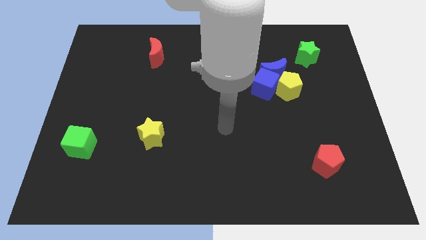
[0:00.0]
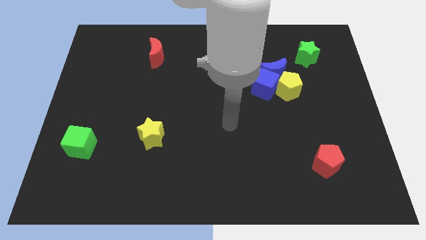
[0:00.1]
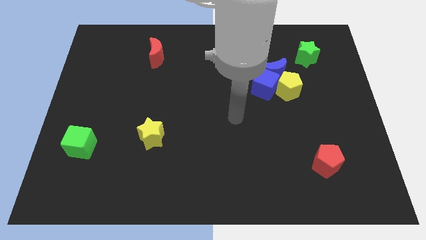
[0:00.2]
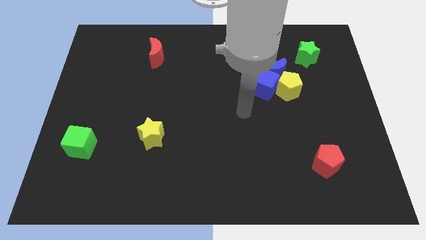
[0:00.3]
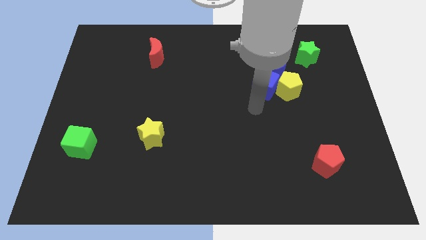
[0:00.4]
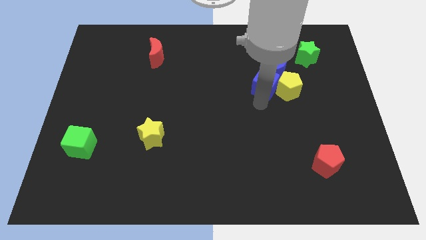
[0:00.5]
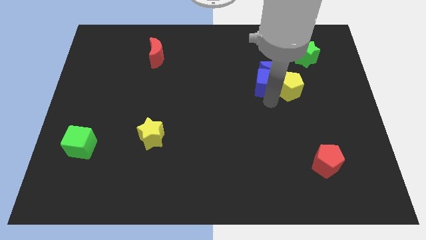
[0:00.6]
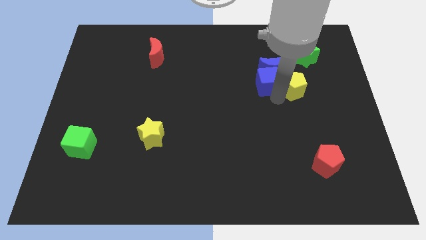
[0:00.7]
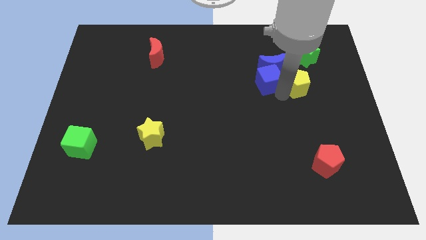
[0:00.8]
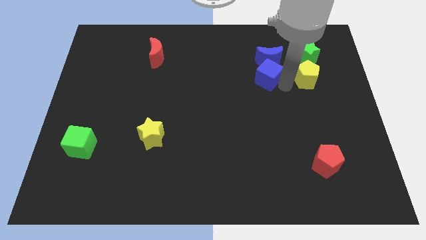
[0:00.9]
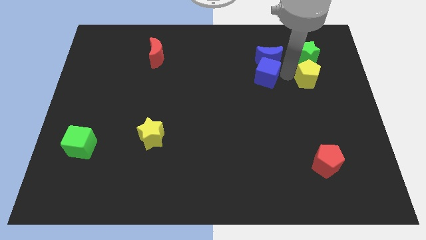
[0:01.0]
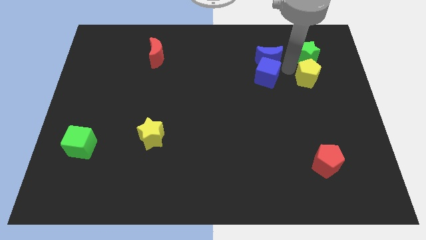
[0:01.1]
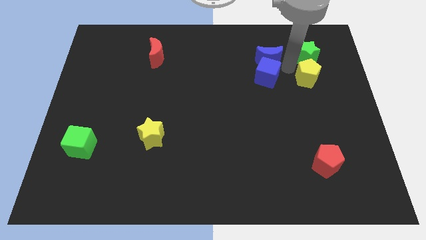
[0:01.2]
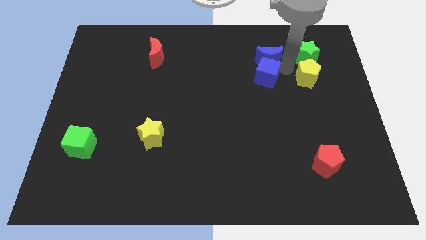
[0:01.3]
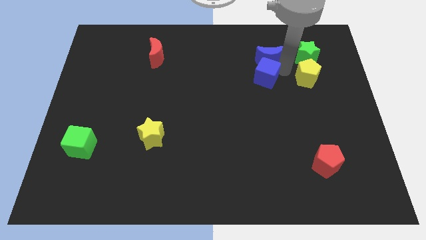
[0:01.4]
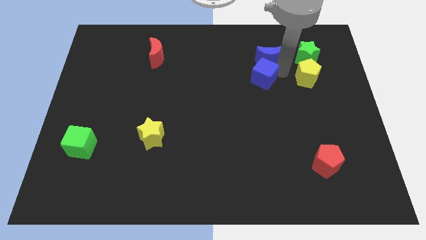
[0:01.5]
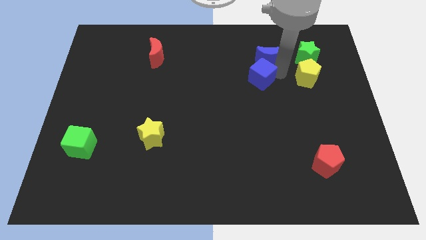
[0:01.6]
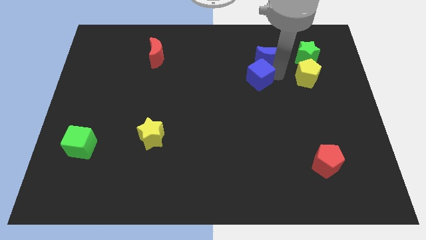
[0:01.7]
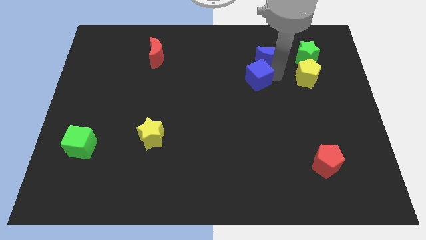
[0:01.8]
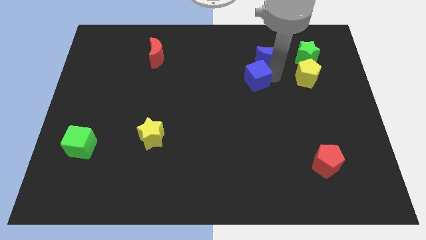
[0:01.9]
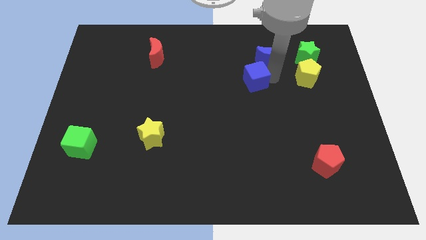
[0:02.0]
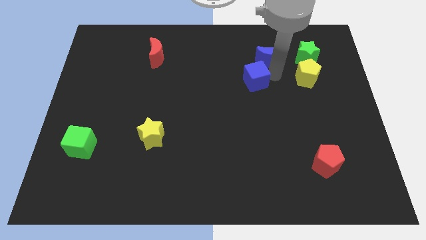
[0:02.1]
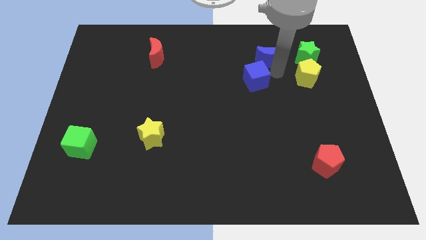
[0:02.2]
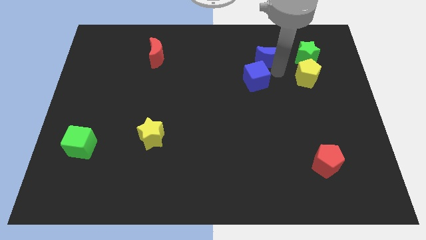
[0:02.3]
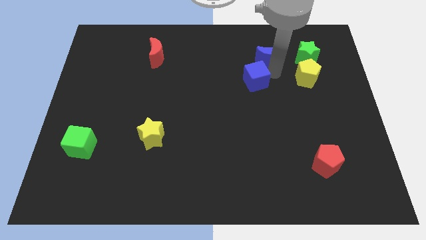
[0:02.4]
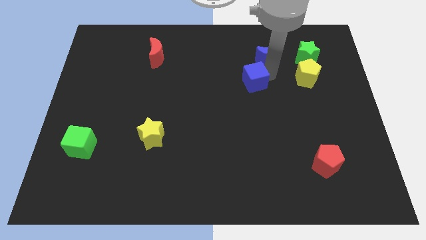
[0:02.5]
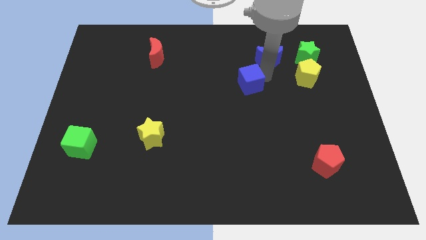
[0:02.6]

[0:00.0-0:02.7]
pull the blue cube apart from the blue moon and yellow pentagon

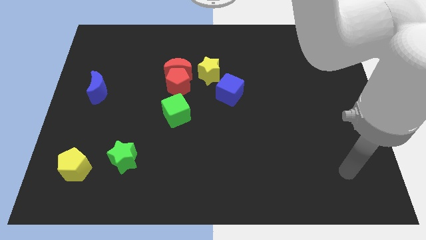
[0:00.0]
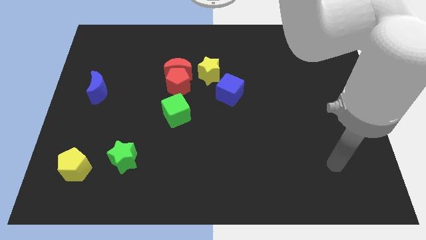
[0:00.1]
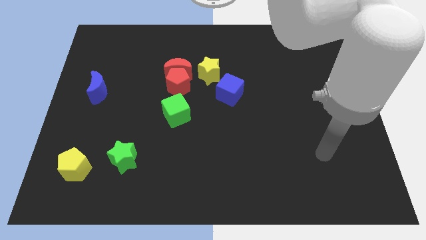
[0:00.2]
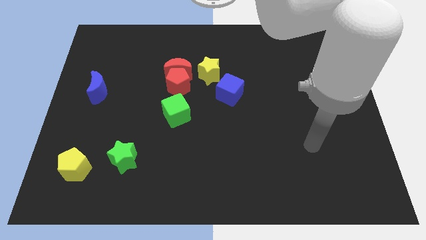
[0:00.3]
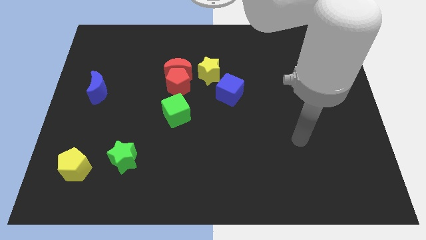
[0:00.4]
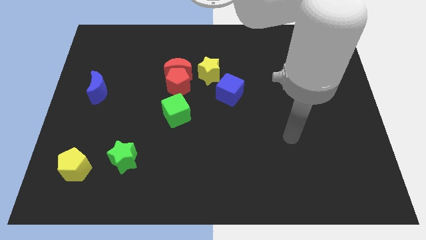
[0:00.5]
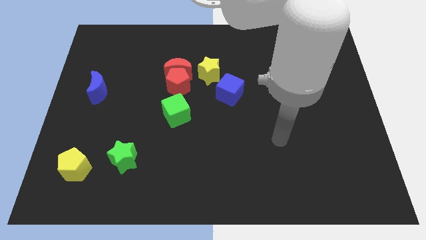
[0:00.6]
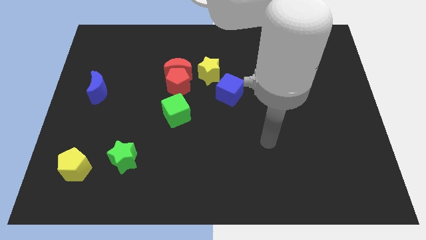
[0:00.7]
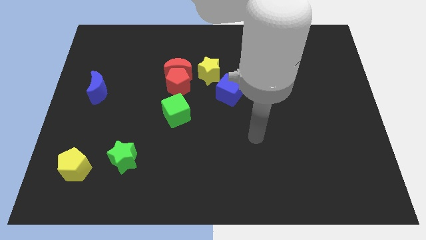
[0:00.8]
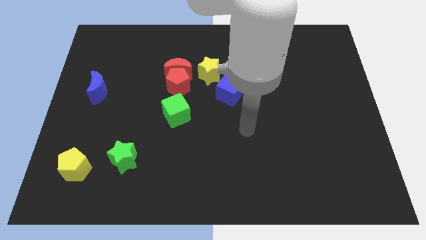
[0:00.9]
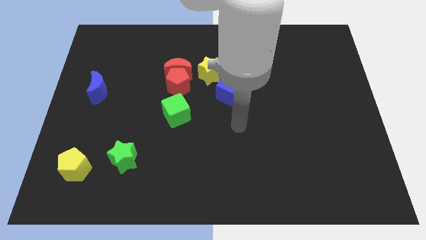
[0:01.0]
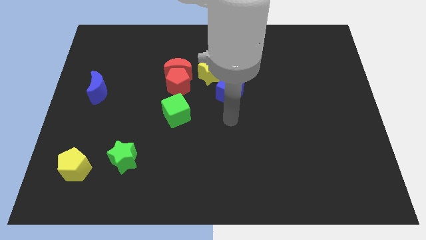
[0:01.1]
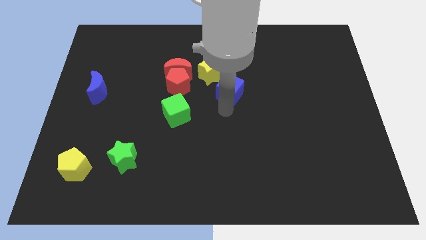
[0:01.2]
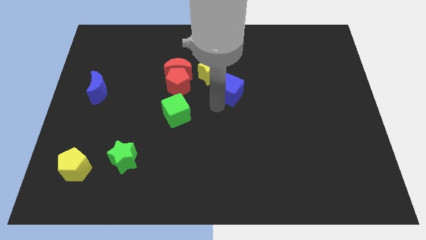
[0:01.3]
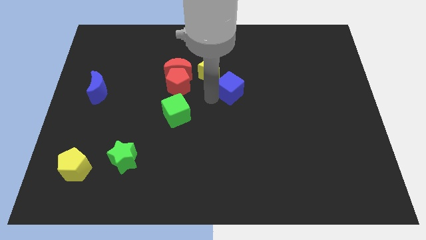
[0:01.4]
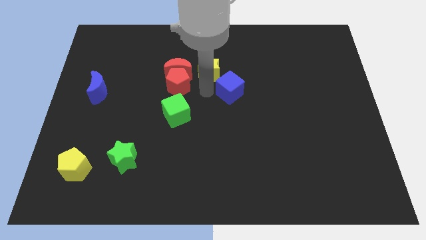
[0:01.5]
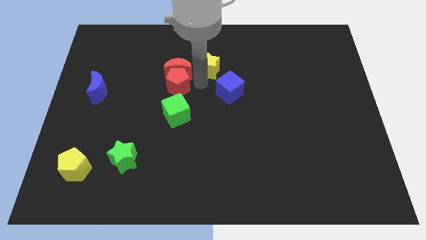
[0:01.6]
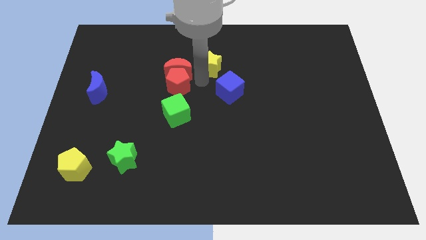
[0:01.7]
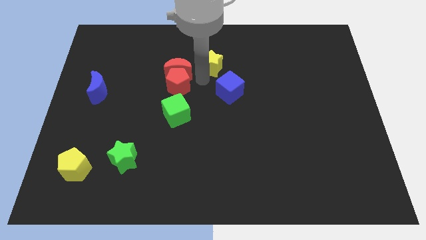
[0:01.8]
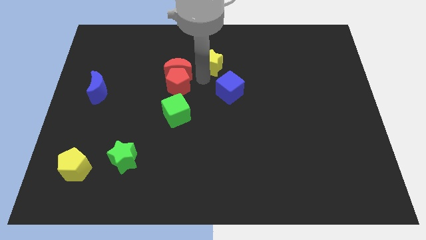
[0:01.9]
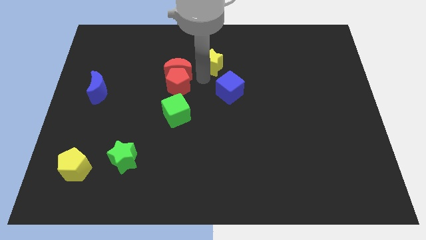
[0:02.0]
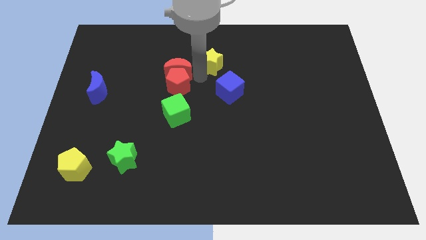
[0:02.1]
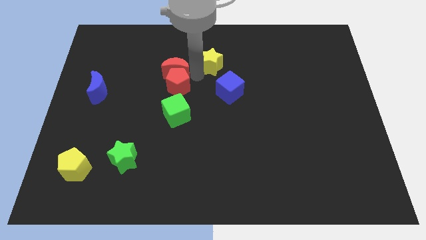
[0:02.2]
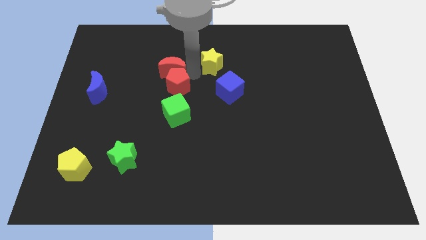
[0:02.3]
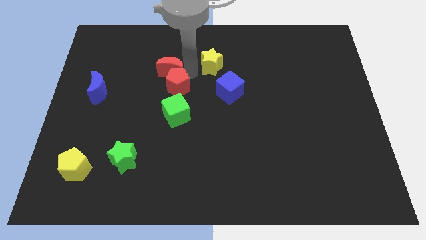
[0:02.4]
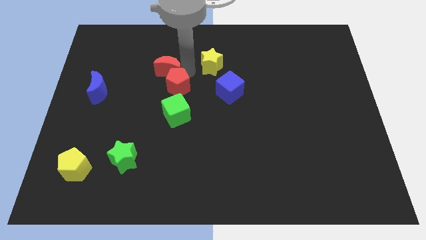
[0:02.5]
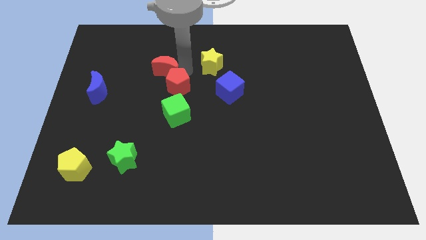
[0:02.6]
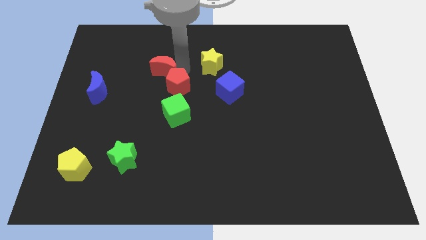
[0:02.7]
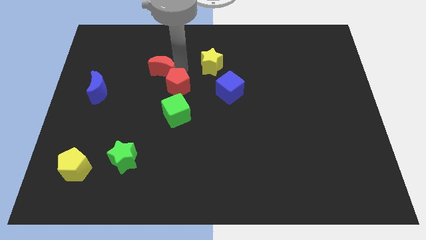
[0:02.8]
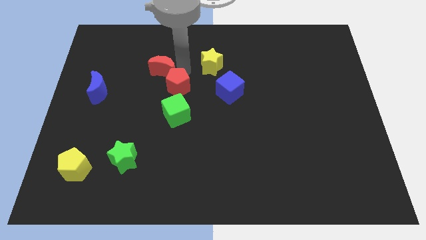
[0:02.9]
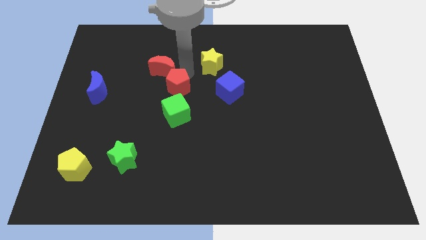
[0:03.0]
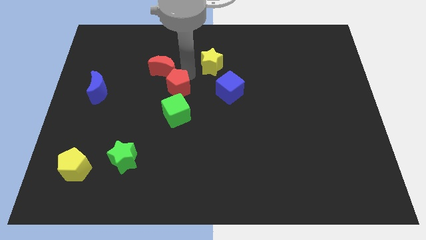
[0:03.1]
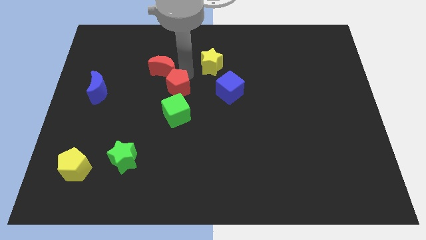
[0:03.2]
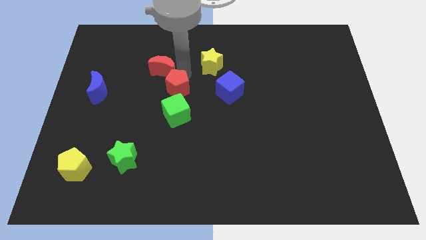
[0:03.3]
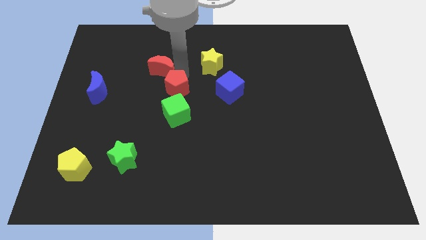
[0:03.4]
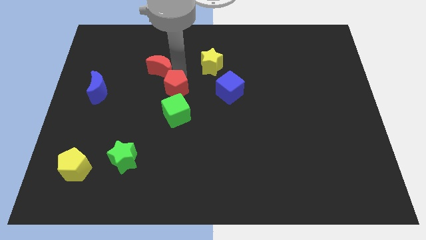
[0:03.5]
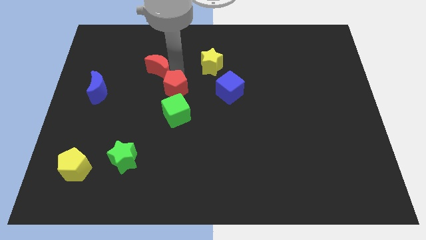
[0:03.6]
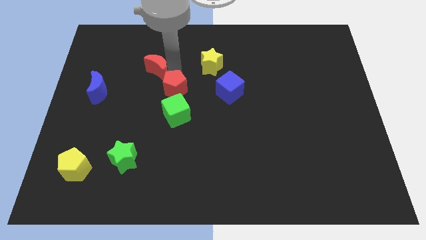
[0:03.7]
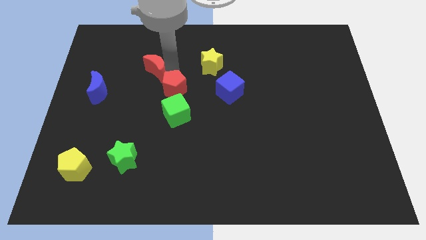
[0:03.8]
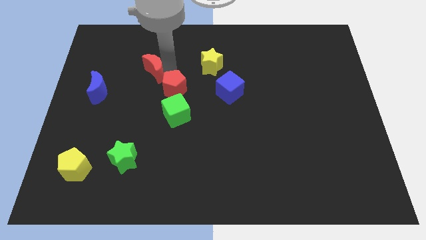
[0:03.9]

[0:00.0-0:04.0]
move the red moon away from the red pentagon and yellow star

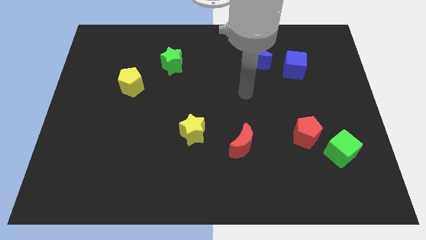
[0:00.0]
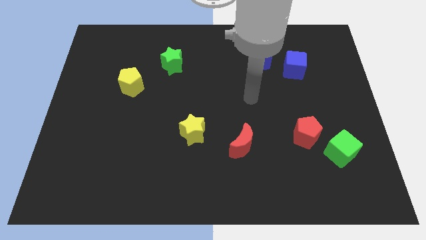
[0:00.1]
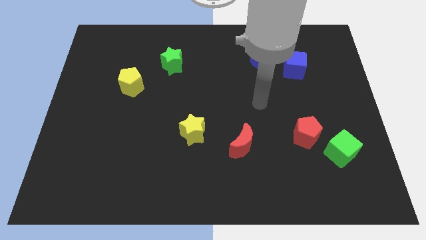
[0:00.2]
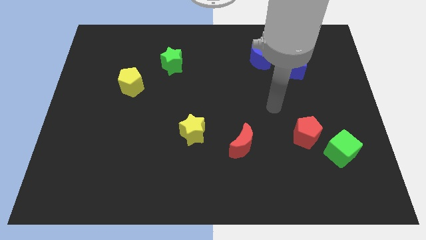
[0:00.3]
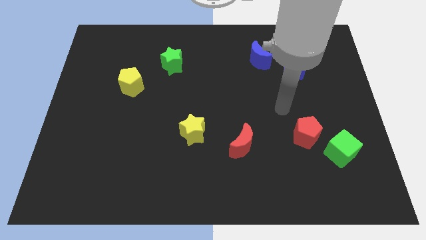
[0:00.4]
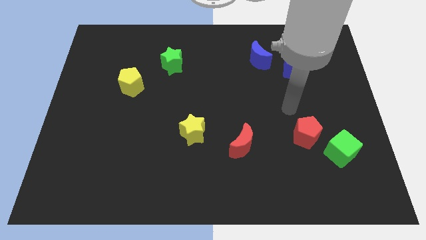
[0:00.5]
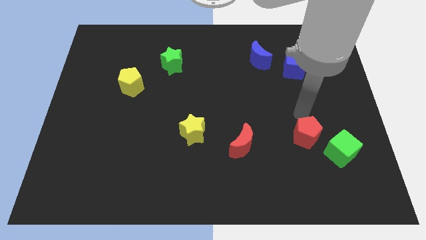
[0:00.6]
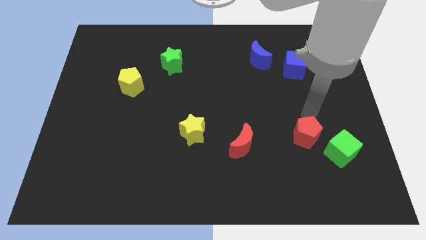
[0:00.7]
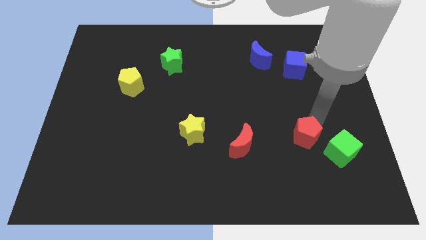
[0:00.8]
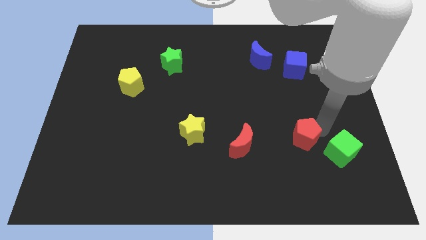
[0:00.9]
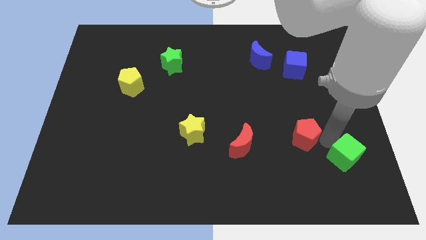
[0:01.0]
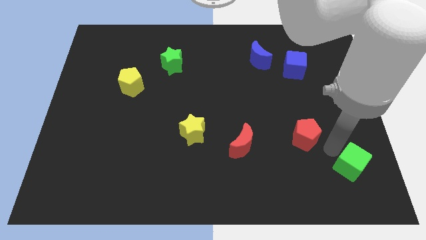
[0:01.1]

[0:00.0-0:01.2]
separate the red pentagon from the green cube

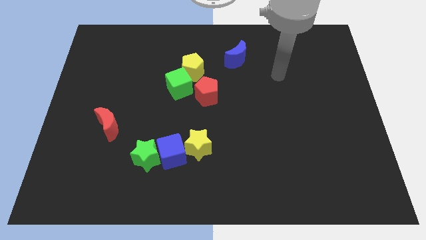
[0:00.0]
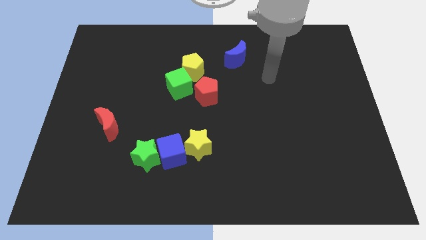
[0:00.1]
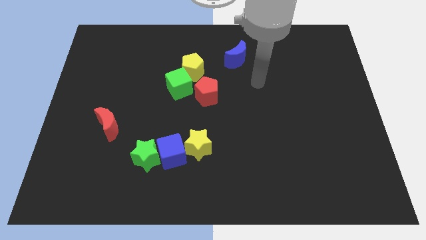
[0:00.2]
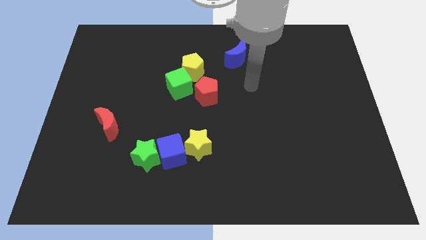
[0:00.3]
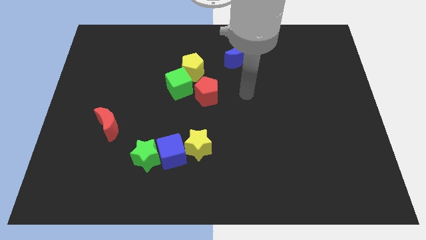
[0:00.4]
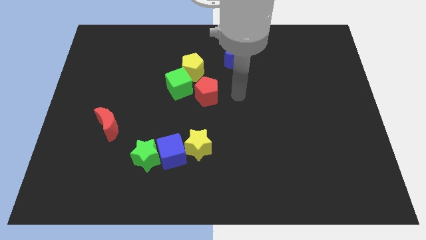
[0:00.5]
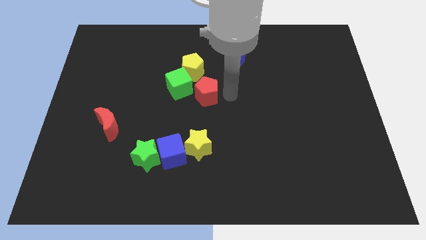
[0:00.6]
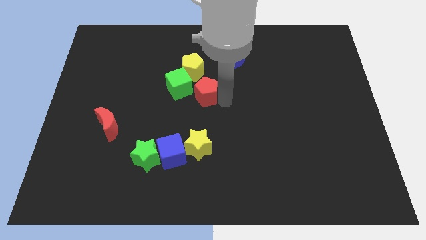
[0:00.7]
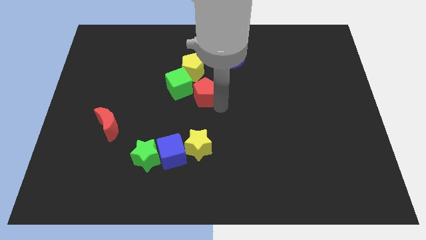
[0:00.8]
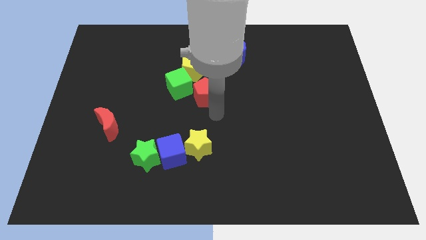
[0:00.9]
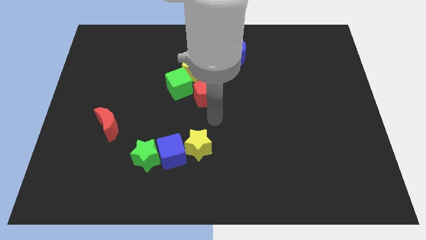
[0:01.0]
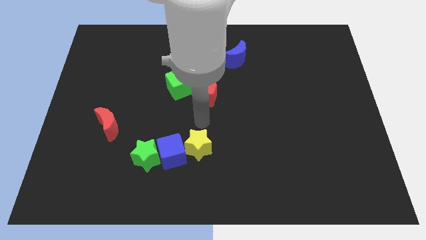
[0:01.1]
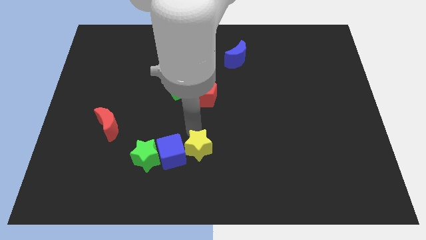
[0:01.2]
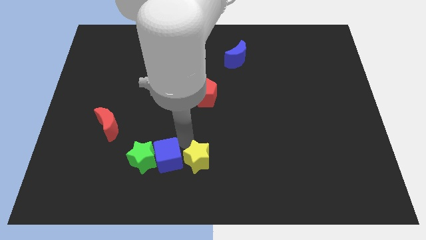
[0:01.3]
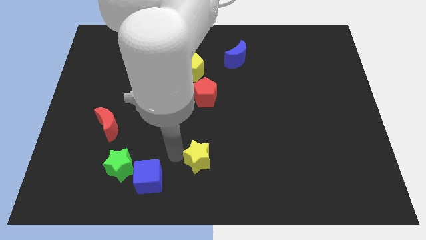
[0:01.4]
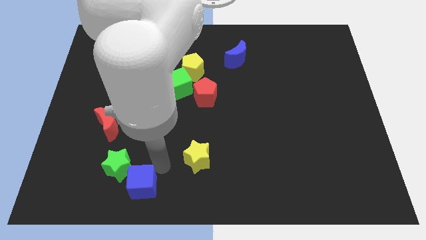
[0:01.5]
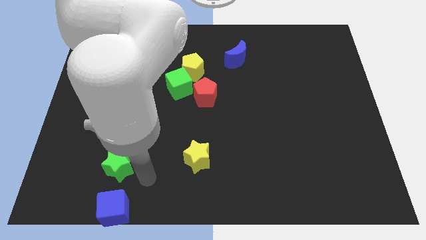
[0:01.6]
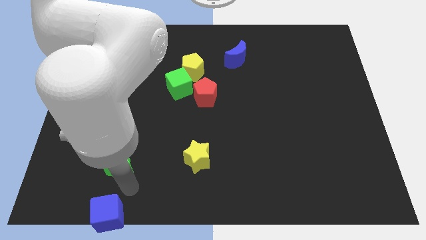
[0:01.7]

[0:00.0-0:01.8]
separate the green star from the blue cube
